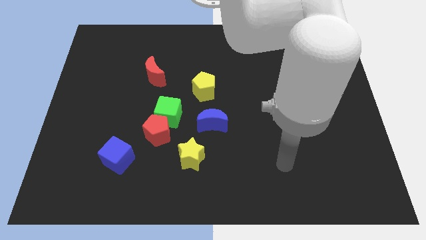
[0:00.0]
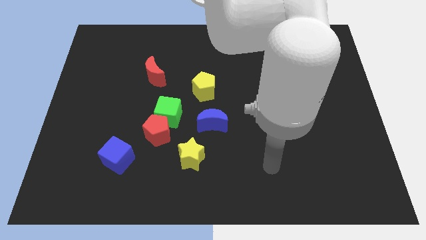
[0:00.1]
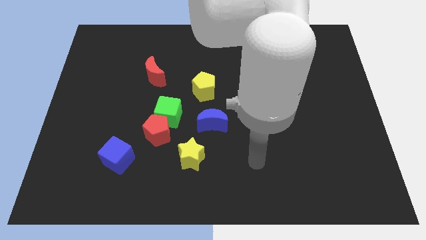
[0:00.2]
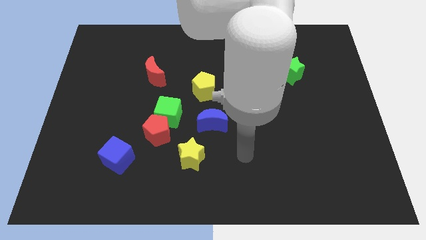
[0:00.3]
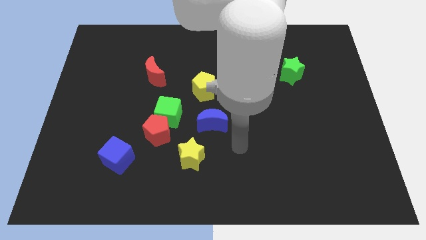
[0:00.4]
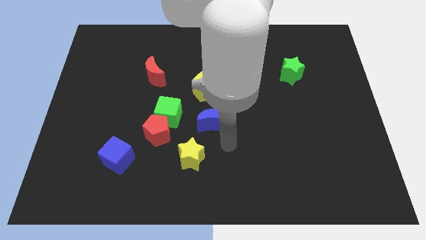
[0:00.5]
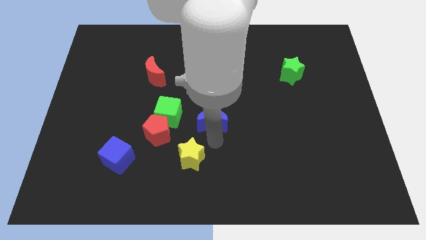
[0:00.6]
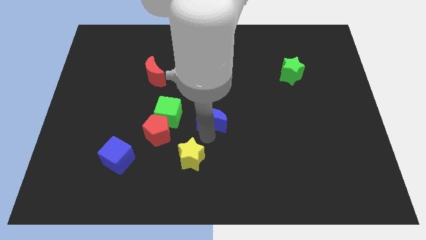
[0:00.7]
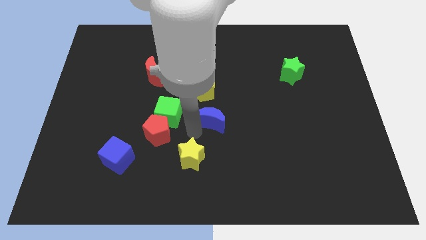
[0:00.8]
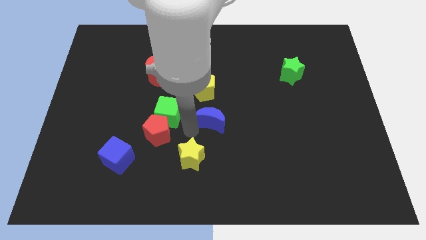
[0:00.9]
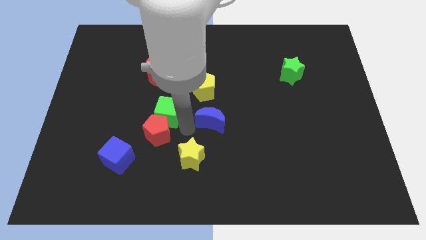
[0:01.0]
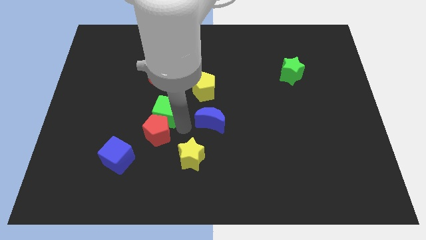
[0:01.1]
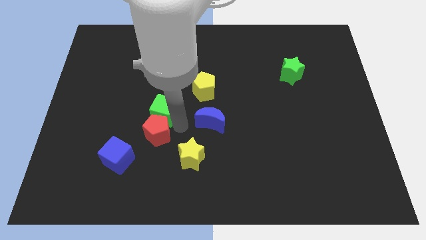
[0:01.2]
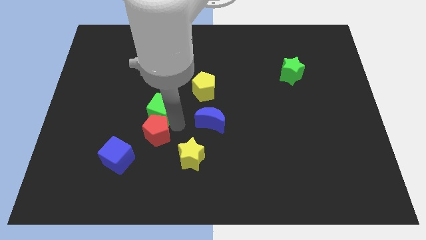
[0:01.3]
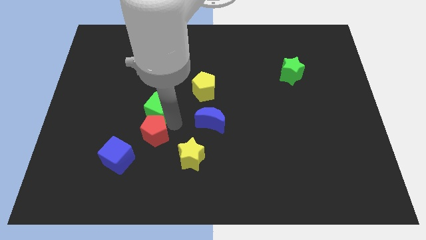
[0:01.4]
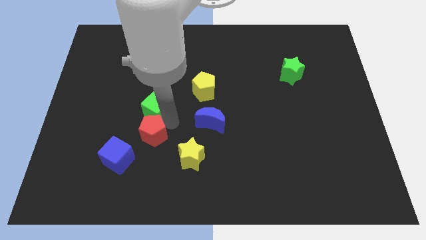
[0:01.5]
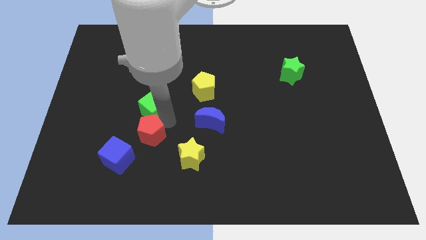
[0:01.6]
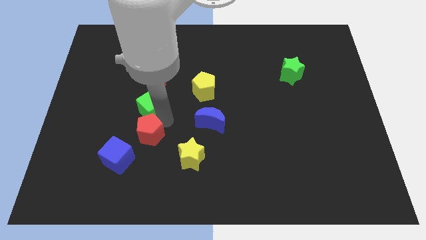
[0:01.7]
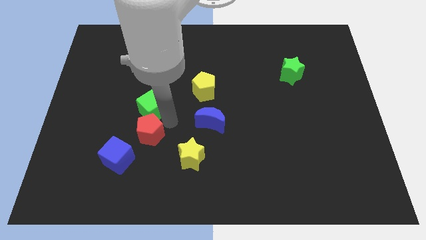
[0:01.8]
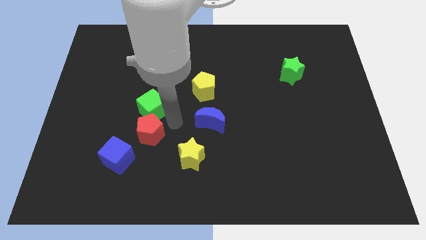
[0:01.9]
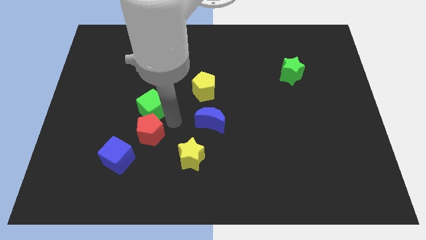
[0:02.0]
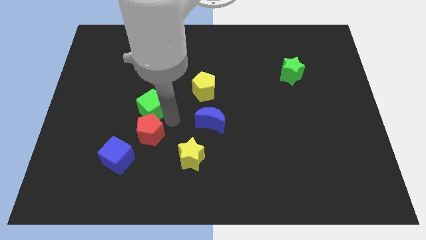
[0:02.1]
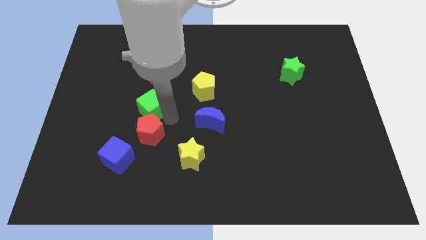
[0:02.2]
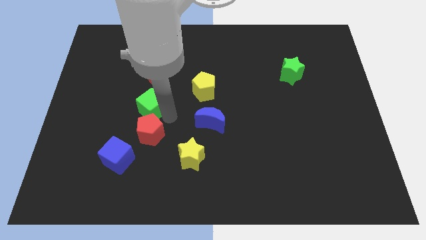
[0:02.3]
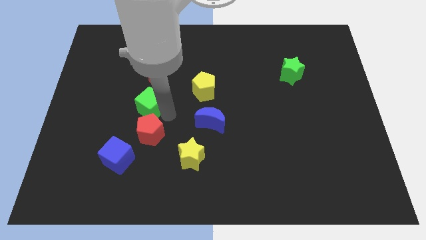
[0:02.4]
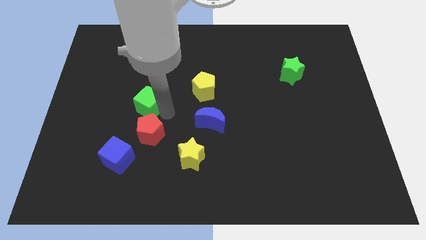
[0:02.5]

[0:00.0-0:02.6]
pull the green cube apart from the red pentagon and blue moon

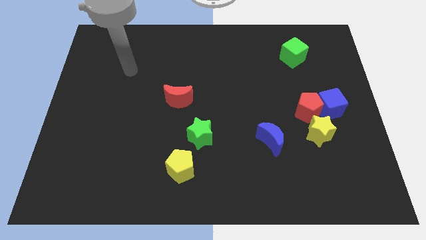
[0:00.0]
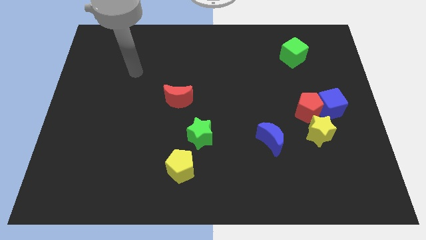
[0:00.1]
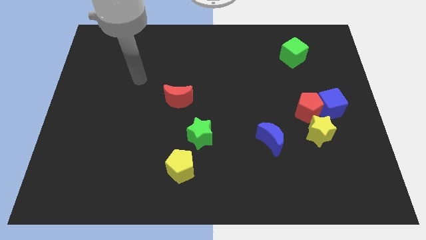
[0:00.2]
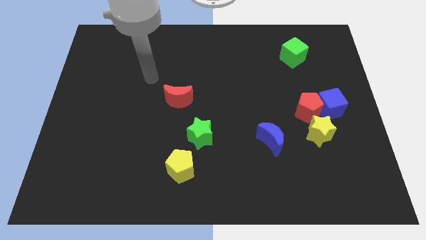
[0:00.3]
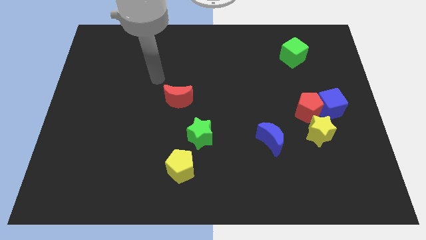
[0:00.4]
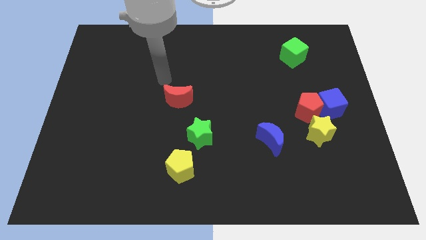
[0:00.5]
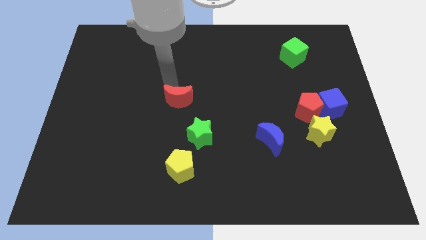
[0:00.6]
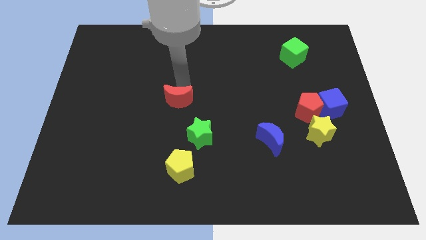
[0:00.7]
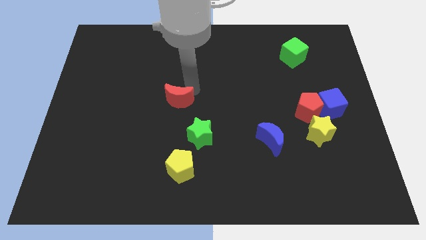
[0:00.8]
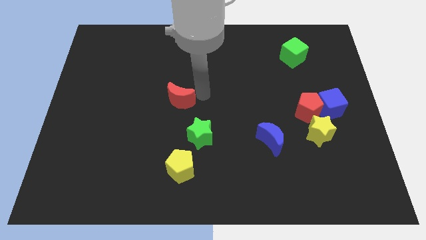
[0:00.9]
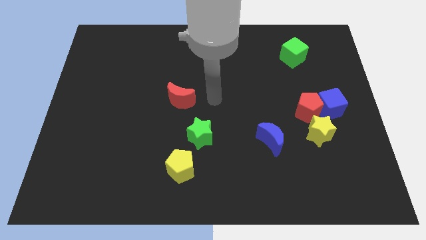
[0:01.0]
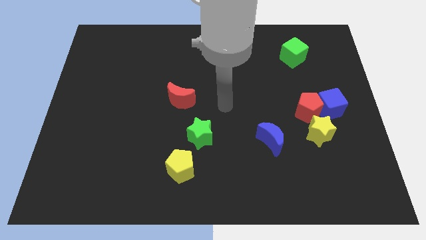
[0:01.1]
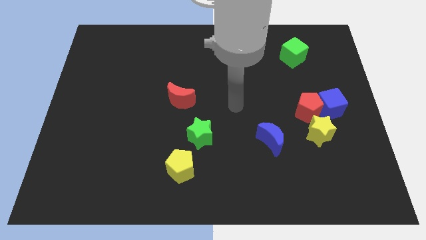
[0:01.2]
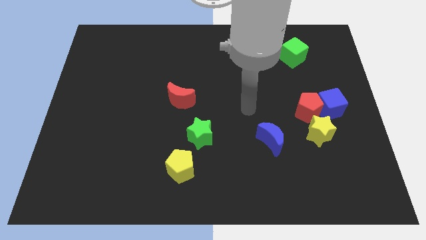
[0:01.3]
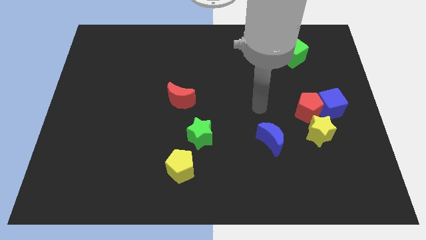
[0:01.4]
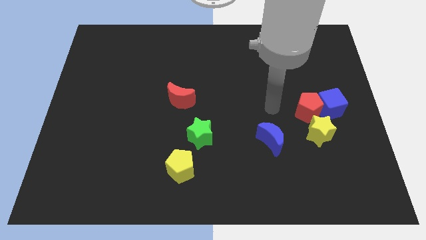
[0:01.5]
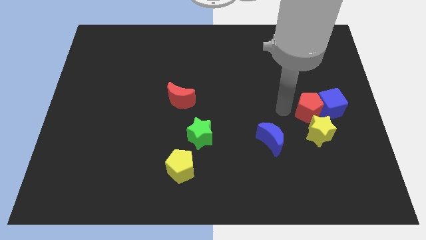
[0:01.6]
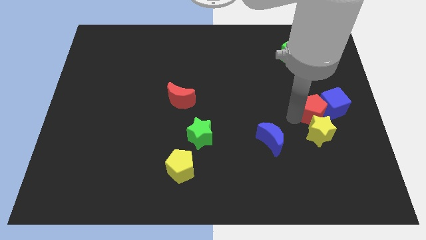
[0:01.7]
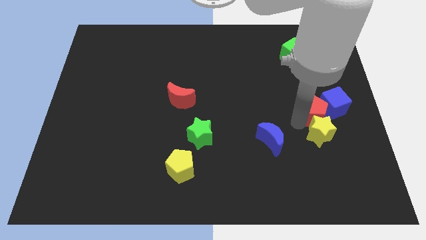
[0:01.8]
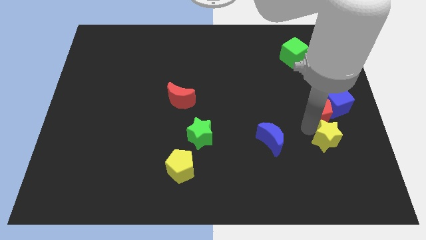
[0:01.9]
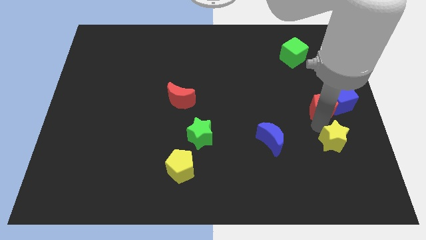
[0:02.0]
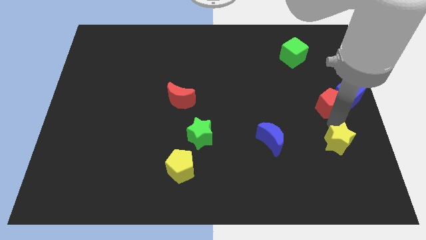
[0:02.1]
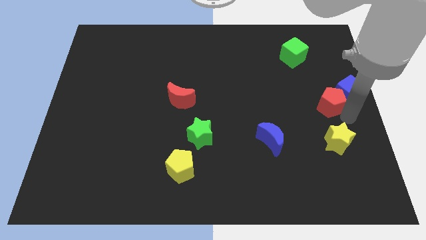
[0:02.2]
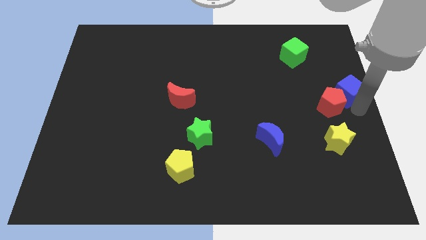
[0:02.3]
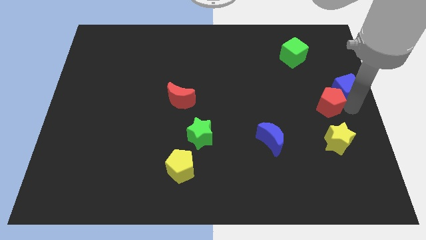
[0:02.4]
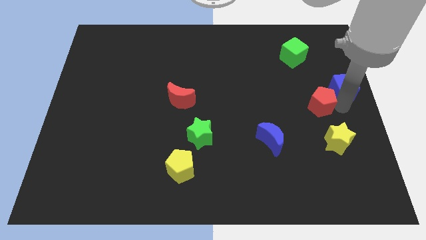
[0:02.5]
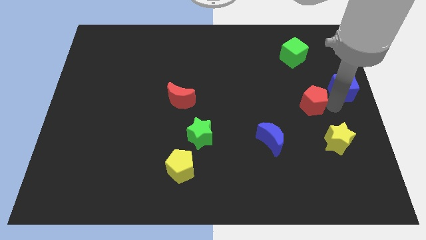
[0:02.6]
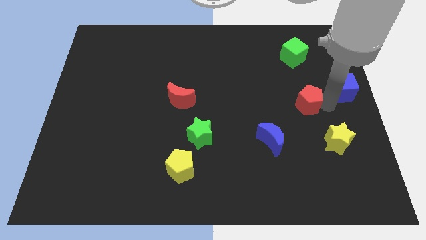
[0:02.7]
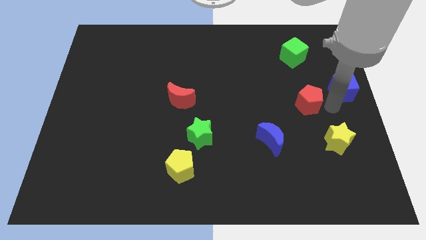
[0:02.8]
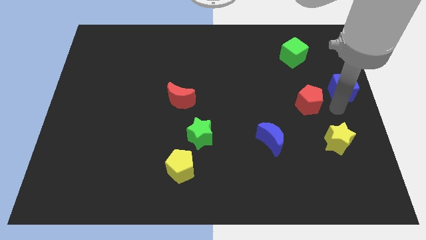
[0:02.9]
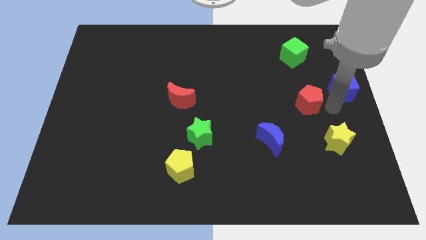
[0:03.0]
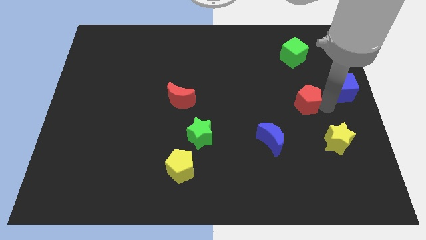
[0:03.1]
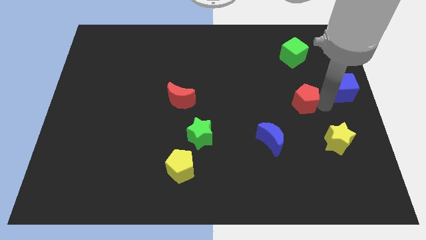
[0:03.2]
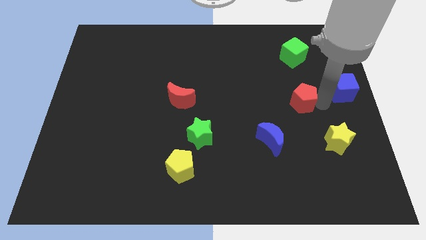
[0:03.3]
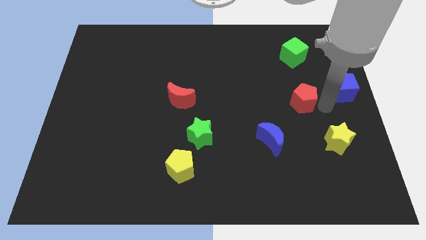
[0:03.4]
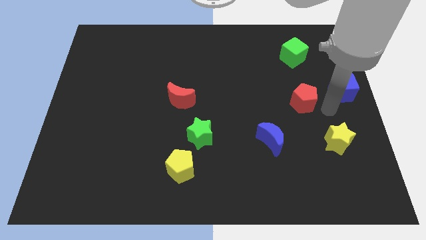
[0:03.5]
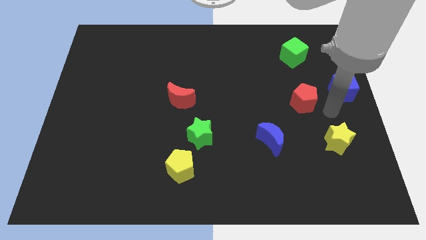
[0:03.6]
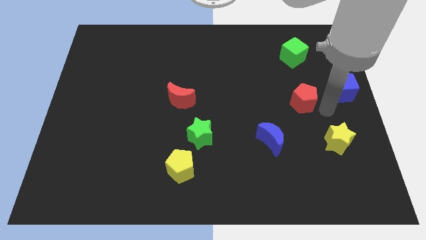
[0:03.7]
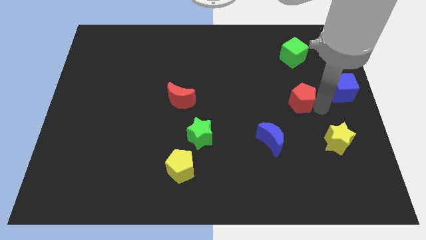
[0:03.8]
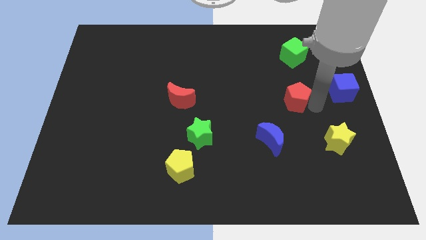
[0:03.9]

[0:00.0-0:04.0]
separate the red pentagon from the blue cube and yellow star

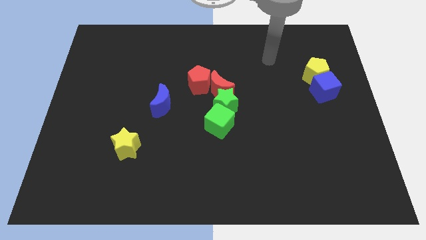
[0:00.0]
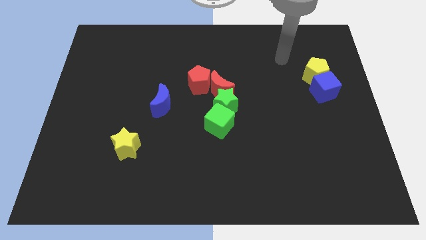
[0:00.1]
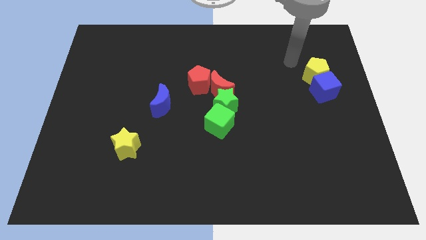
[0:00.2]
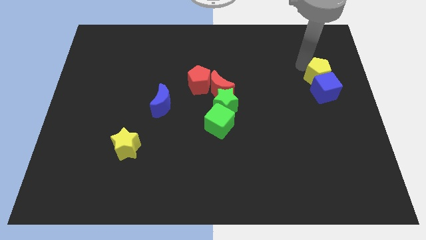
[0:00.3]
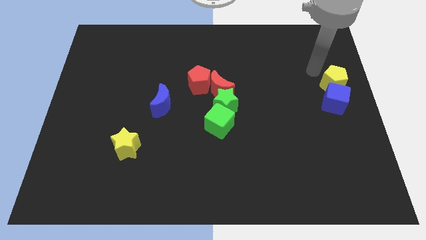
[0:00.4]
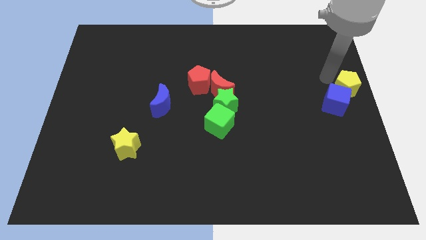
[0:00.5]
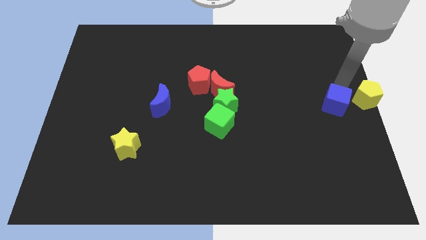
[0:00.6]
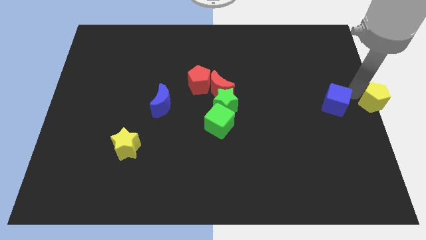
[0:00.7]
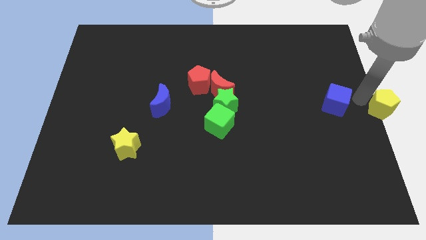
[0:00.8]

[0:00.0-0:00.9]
separate the blue cube from the yellow pentagon

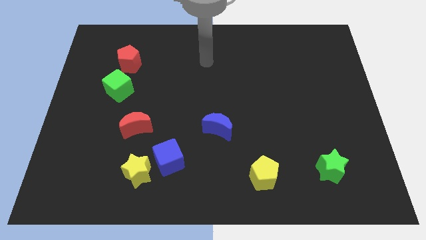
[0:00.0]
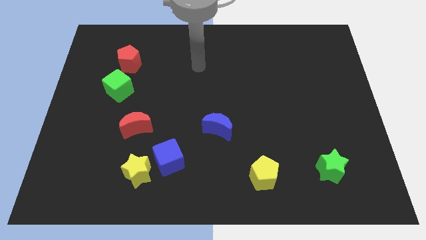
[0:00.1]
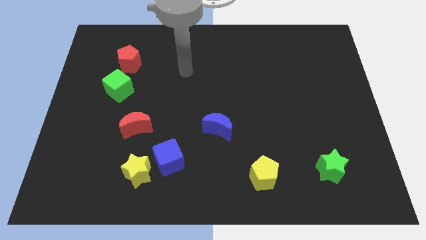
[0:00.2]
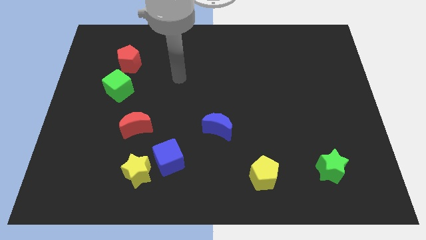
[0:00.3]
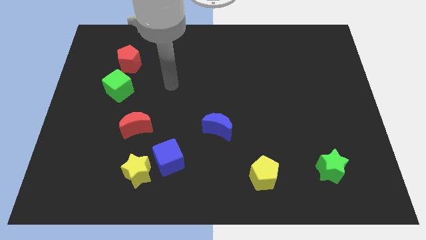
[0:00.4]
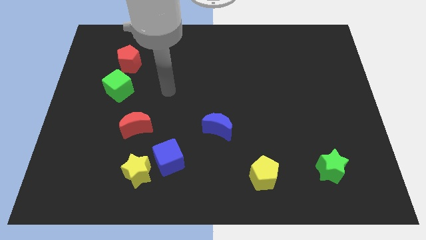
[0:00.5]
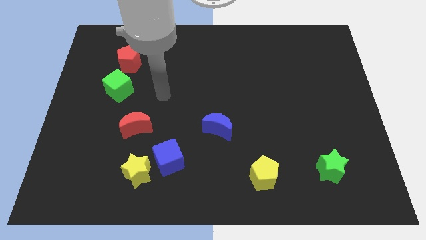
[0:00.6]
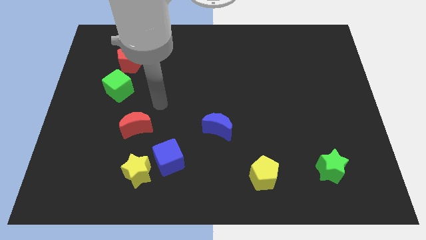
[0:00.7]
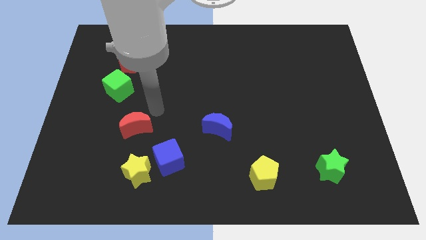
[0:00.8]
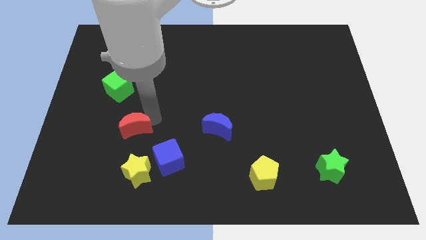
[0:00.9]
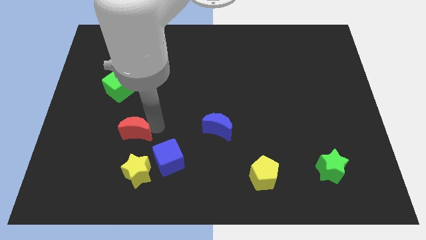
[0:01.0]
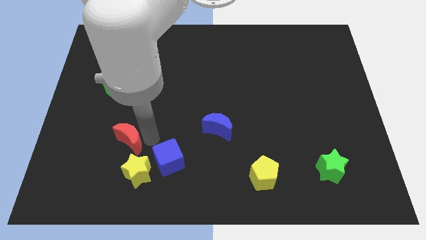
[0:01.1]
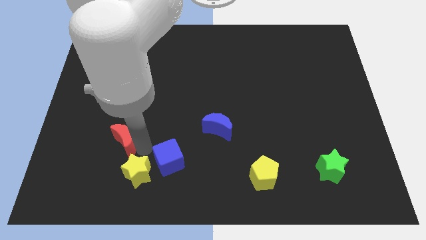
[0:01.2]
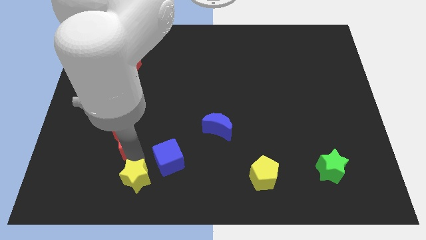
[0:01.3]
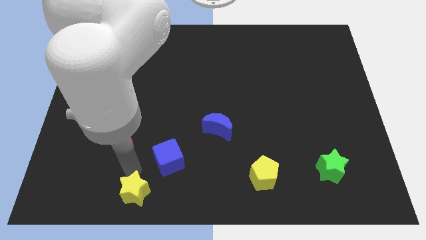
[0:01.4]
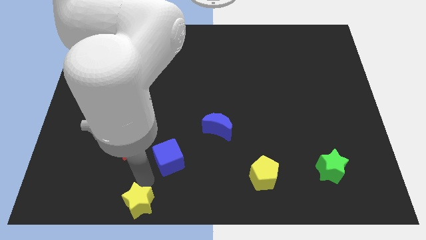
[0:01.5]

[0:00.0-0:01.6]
move the blue cube away from the yellow star

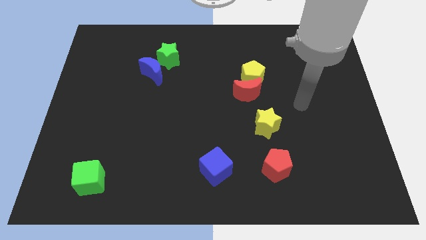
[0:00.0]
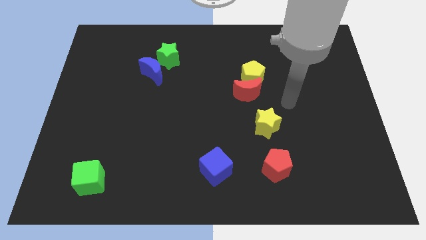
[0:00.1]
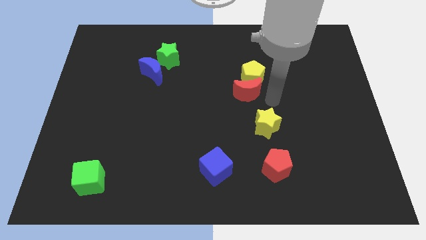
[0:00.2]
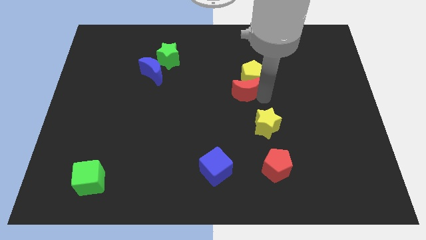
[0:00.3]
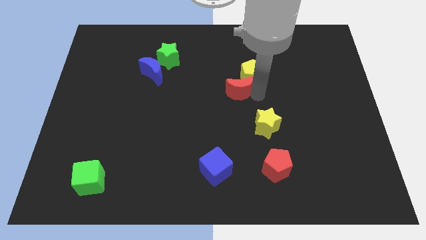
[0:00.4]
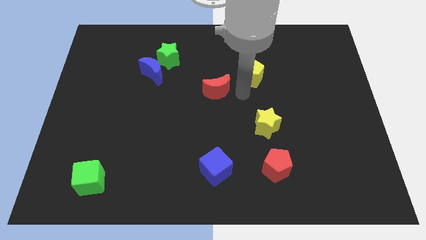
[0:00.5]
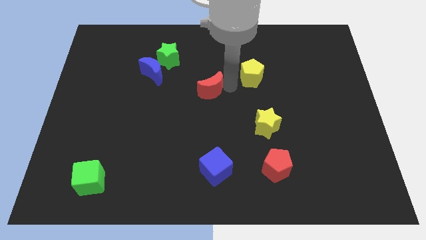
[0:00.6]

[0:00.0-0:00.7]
separate the yellow pentagon from the red moon
